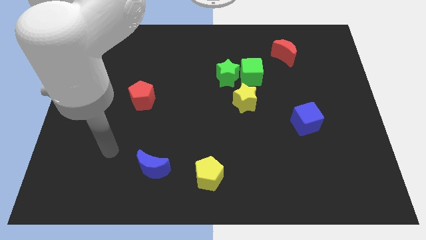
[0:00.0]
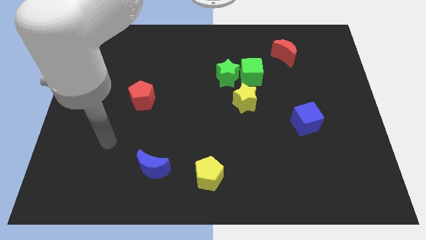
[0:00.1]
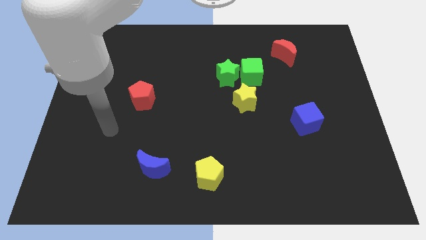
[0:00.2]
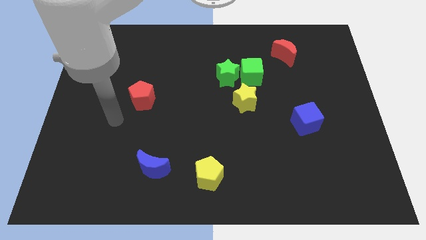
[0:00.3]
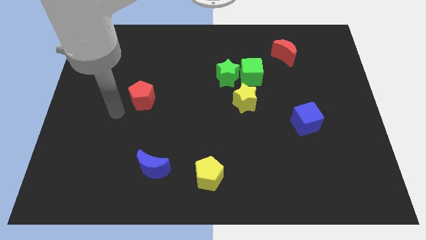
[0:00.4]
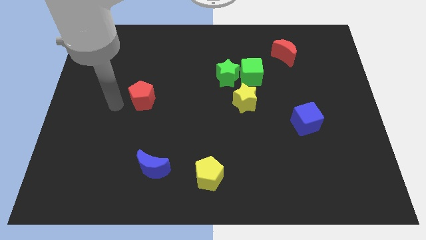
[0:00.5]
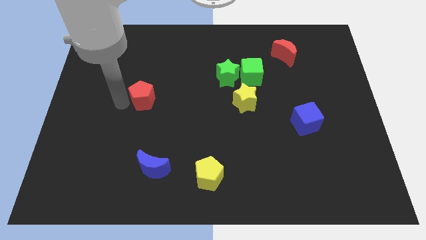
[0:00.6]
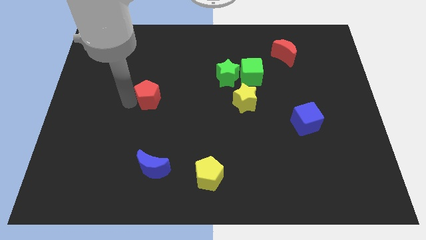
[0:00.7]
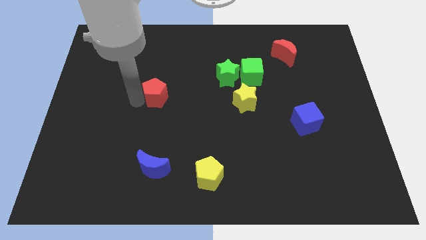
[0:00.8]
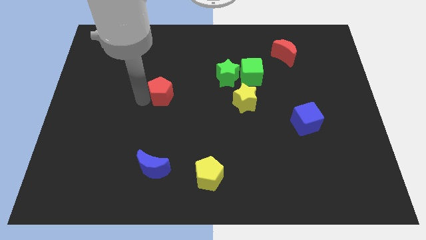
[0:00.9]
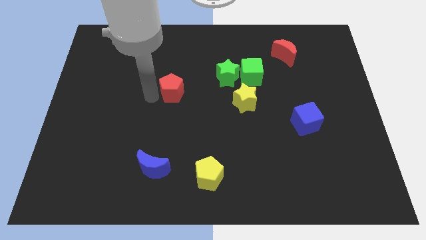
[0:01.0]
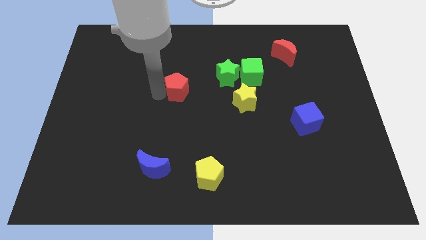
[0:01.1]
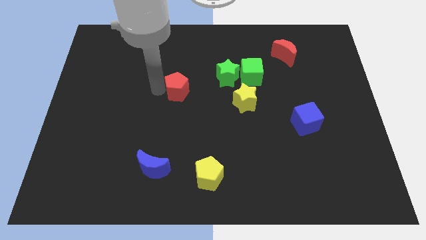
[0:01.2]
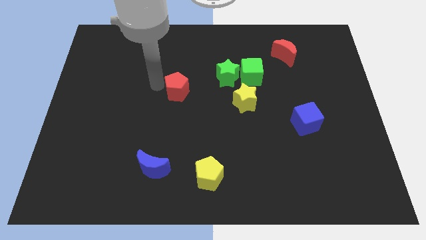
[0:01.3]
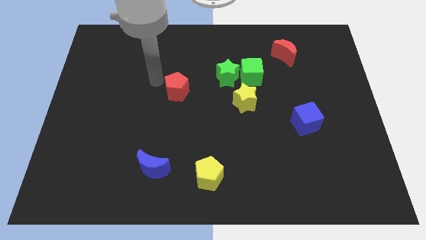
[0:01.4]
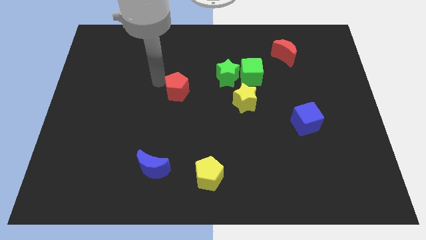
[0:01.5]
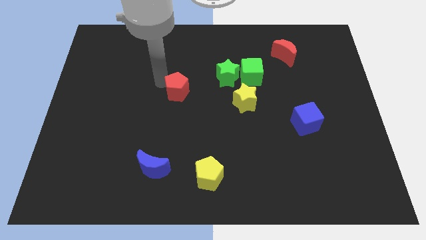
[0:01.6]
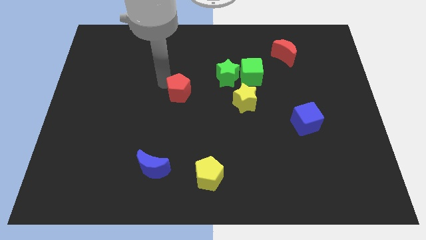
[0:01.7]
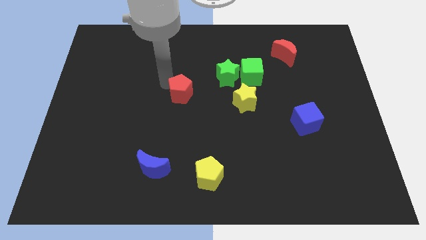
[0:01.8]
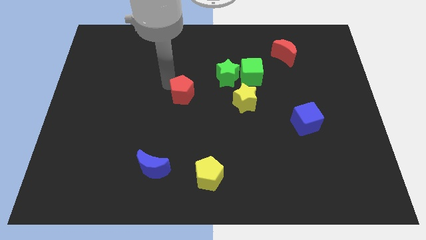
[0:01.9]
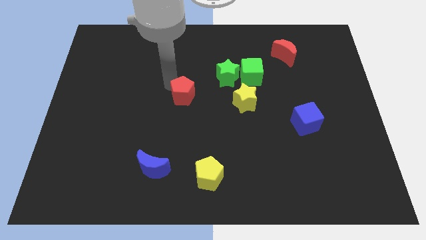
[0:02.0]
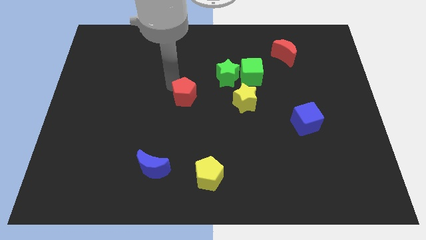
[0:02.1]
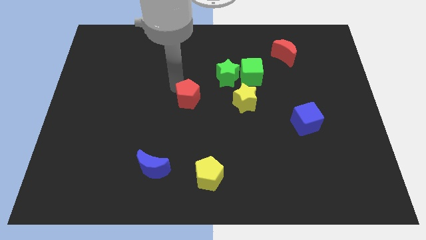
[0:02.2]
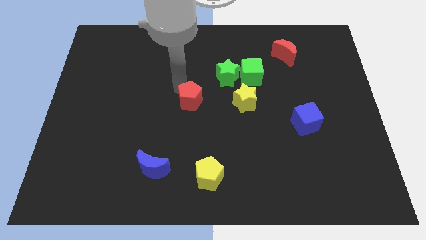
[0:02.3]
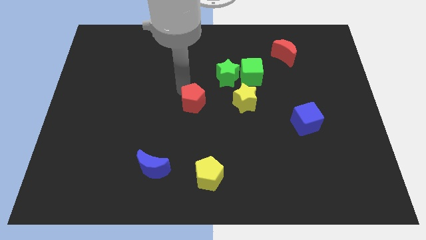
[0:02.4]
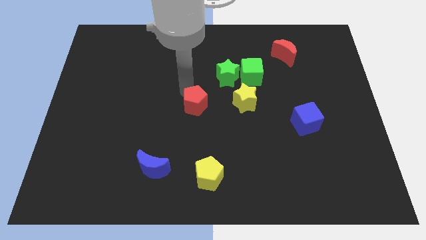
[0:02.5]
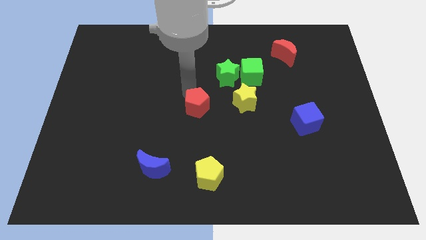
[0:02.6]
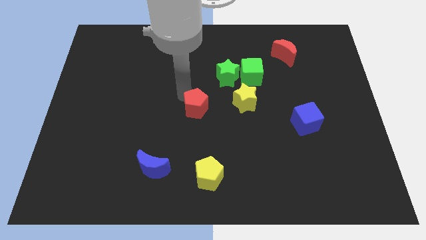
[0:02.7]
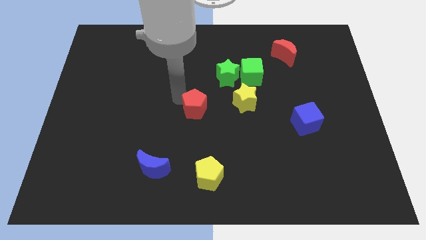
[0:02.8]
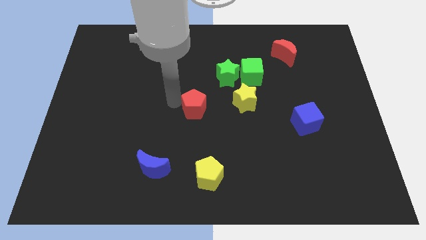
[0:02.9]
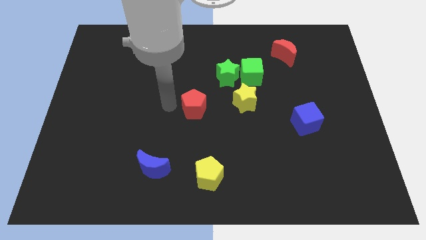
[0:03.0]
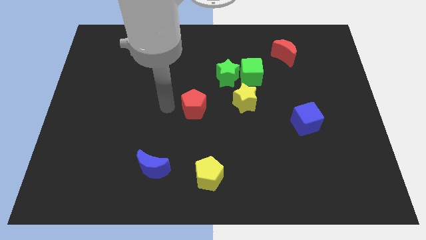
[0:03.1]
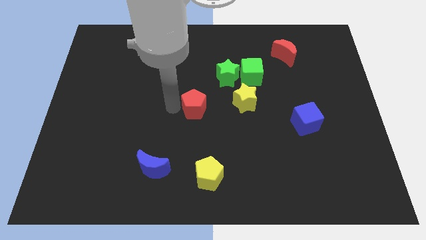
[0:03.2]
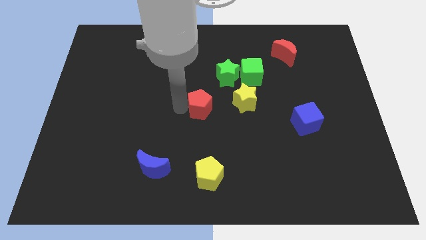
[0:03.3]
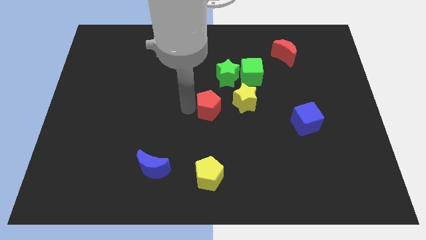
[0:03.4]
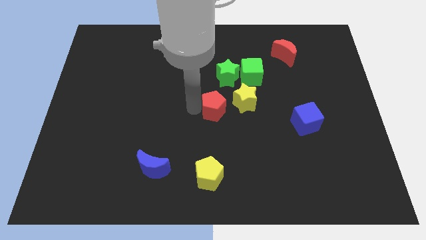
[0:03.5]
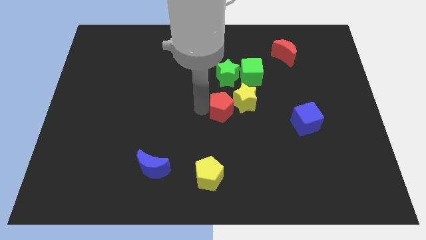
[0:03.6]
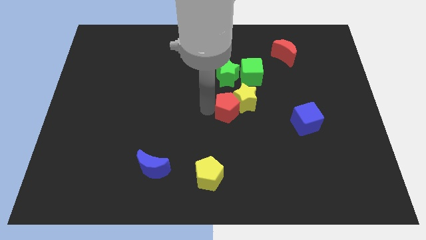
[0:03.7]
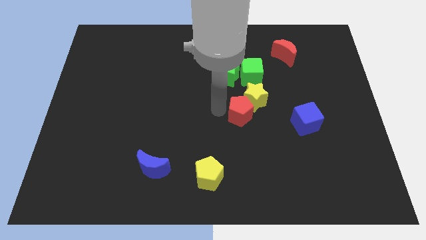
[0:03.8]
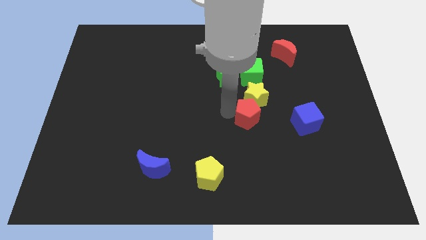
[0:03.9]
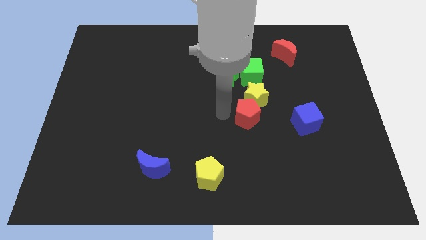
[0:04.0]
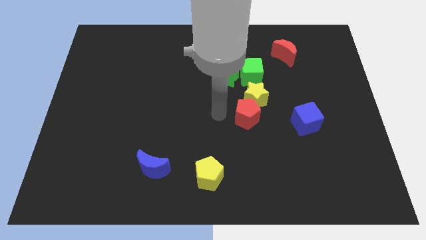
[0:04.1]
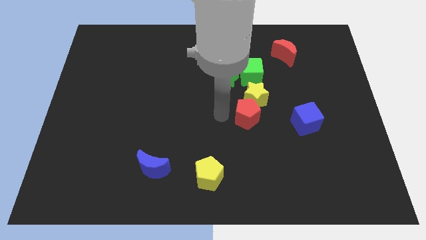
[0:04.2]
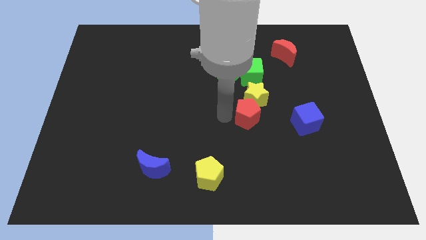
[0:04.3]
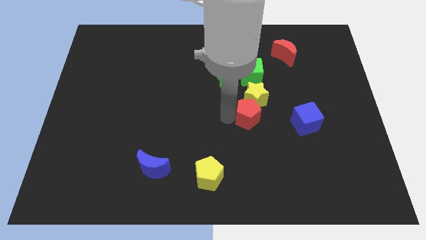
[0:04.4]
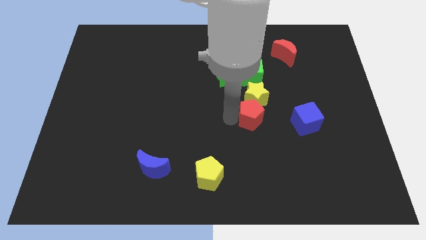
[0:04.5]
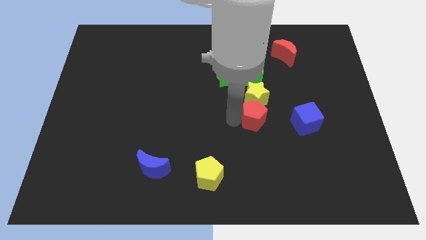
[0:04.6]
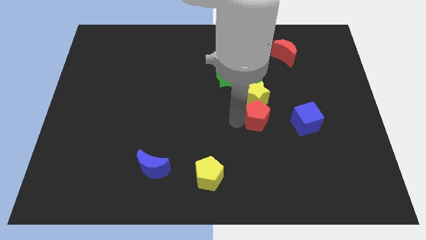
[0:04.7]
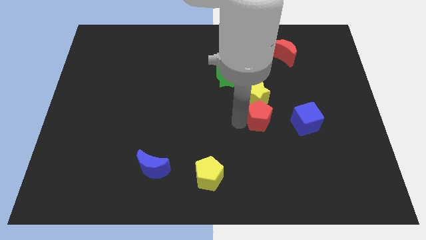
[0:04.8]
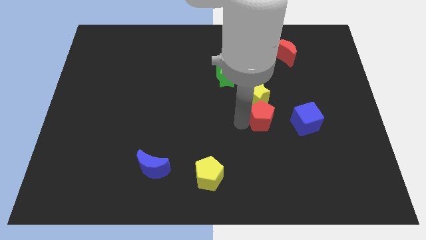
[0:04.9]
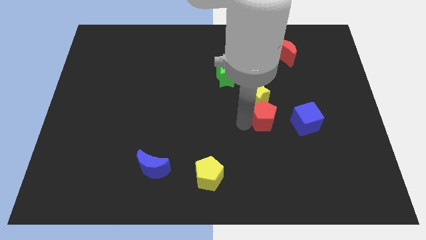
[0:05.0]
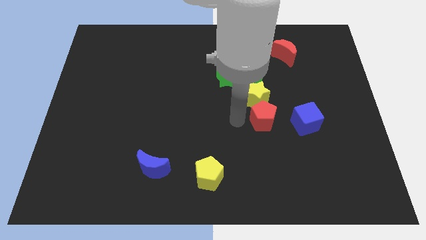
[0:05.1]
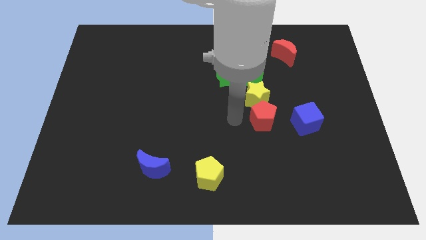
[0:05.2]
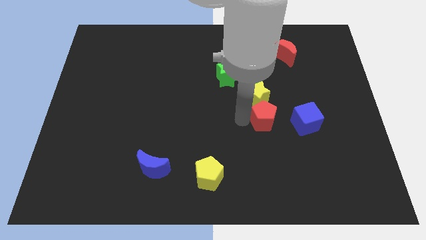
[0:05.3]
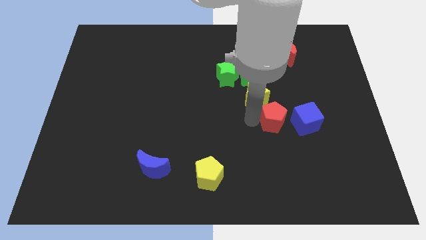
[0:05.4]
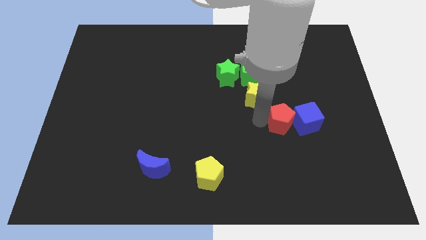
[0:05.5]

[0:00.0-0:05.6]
slide the red pentagon towards the blue cube

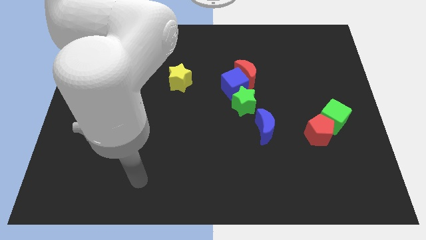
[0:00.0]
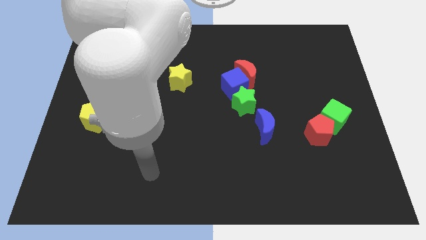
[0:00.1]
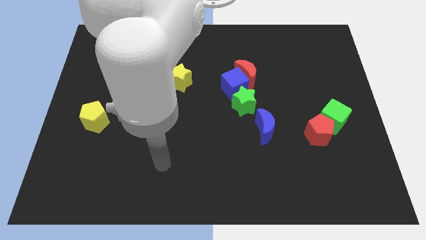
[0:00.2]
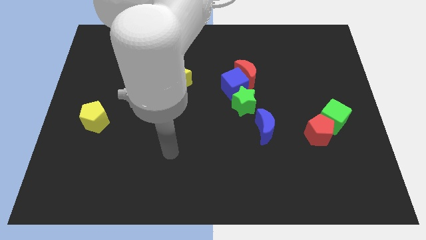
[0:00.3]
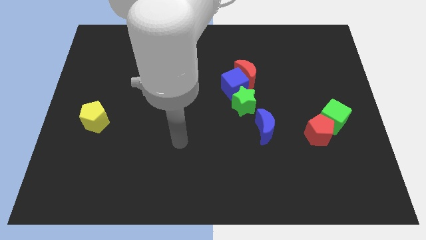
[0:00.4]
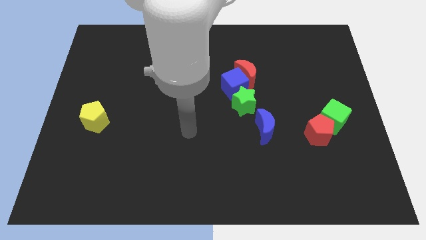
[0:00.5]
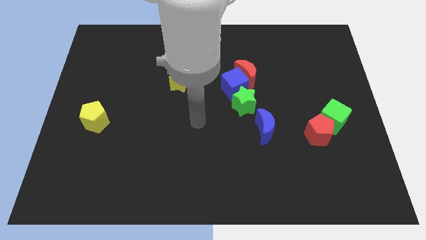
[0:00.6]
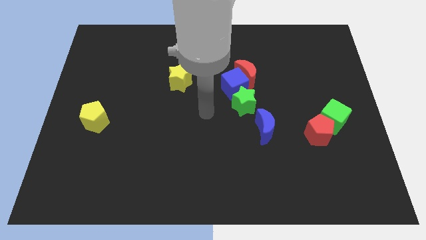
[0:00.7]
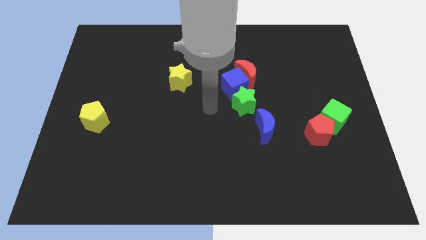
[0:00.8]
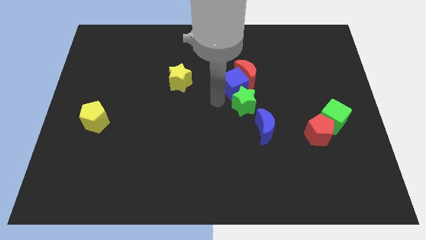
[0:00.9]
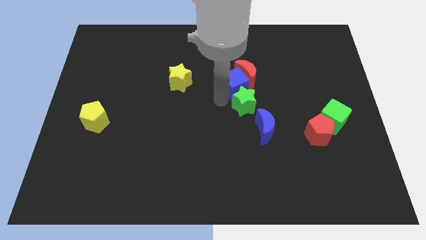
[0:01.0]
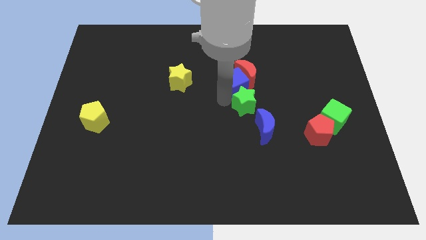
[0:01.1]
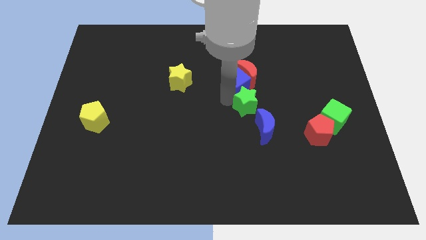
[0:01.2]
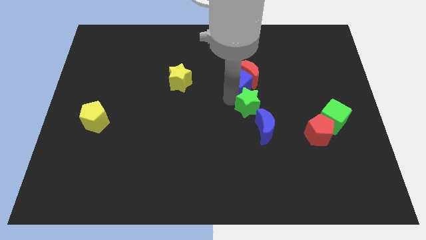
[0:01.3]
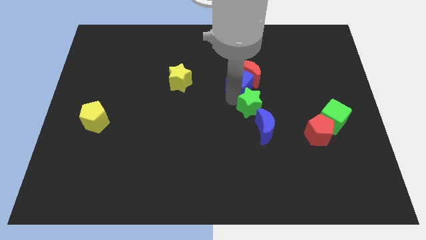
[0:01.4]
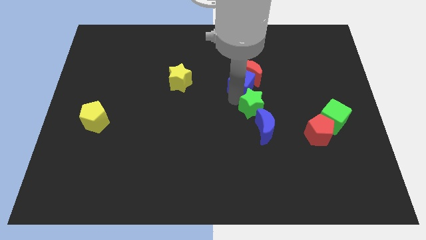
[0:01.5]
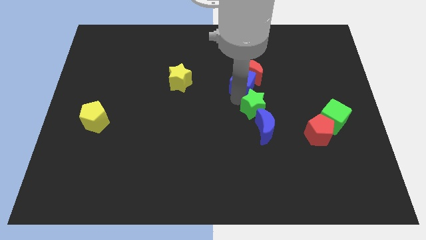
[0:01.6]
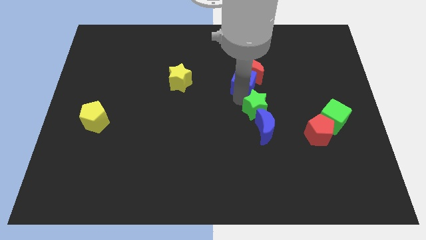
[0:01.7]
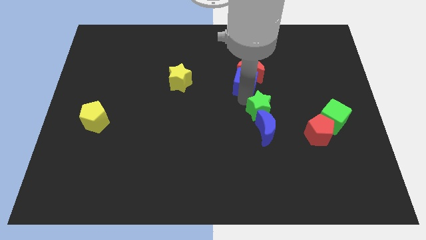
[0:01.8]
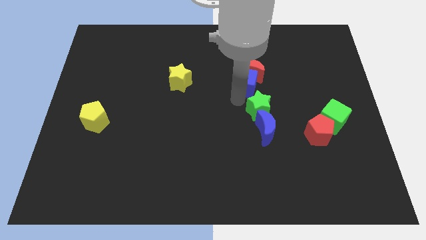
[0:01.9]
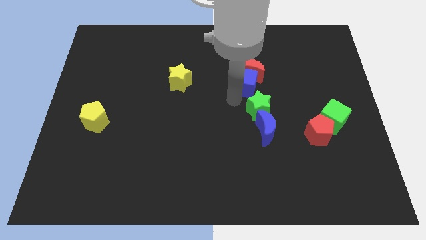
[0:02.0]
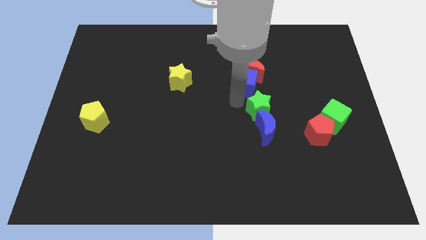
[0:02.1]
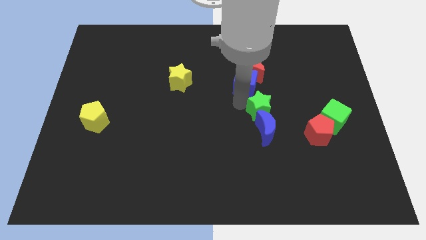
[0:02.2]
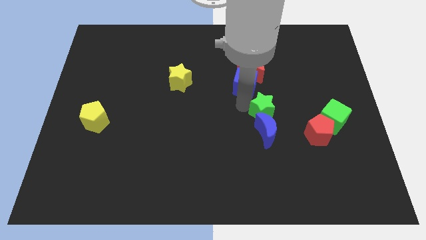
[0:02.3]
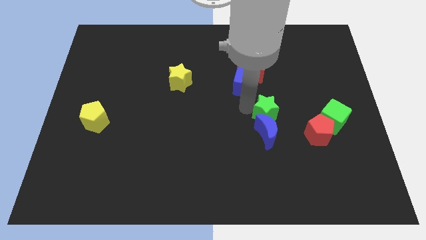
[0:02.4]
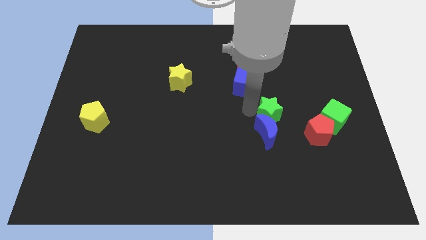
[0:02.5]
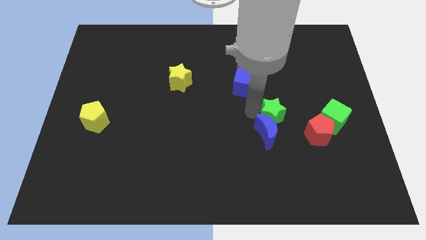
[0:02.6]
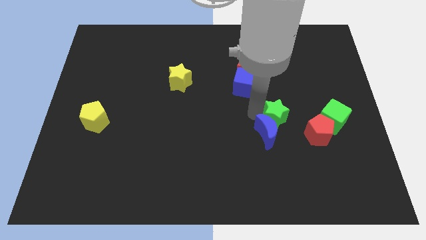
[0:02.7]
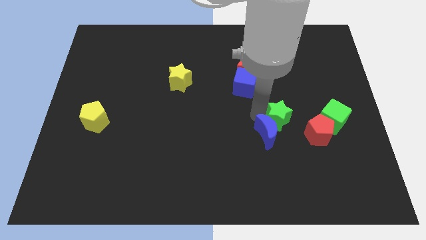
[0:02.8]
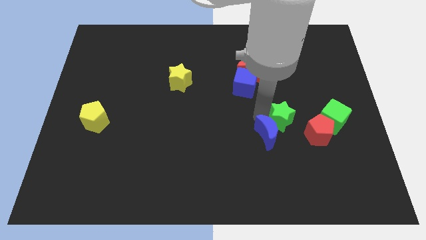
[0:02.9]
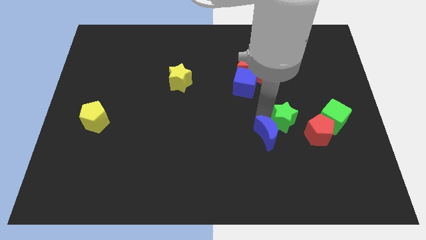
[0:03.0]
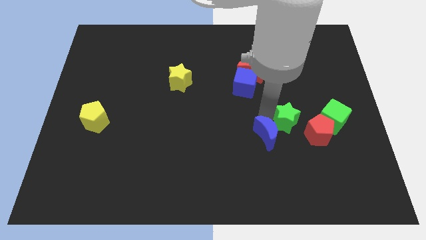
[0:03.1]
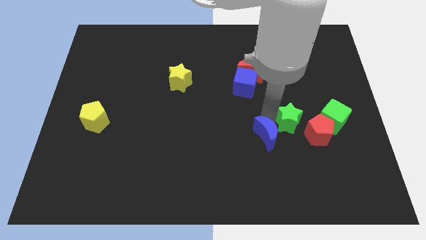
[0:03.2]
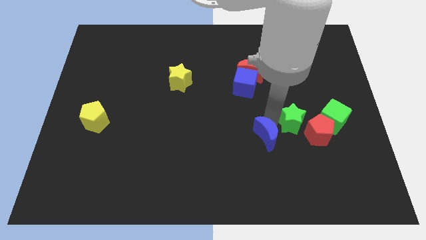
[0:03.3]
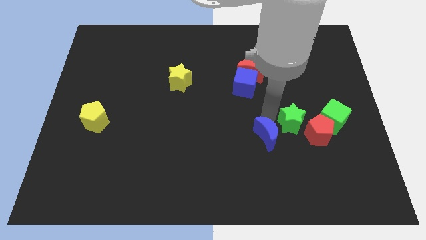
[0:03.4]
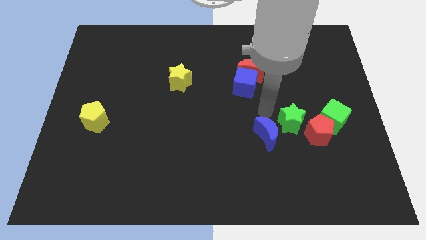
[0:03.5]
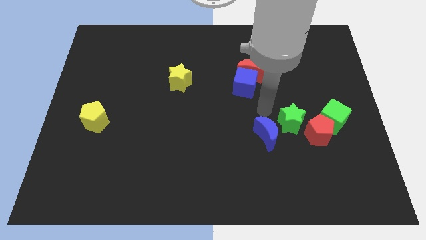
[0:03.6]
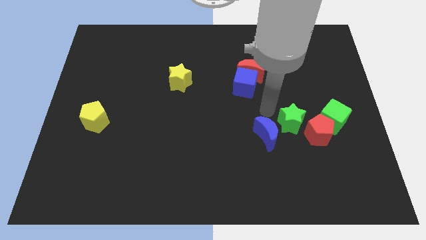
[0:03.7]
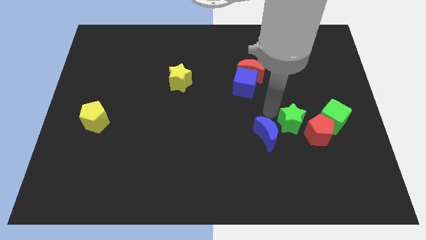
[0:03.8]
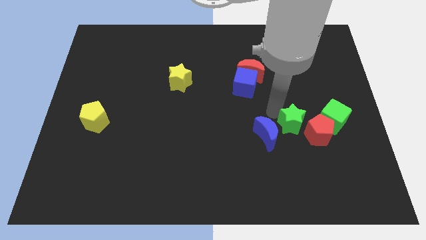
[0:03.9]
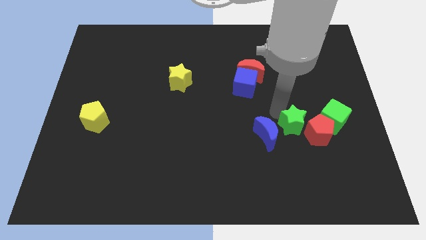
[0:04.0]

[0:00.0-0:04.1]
slide the green star close to the red pentagon
